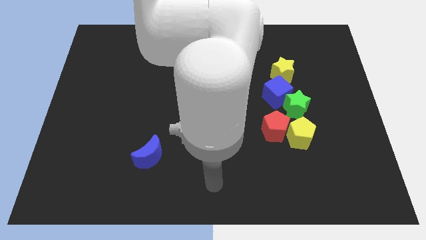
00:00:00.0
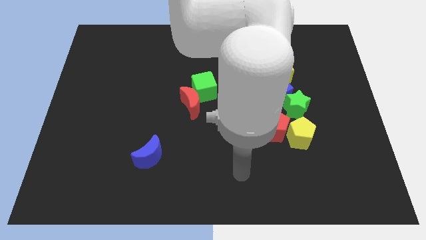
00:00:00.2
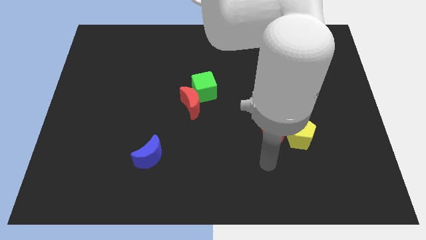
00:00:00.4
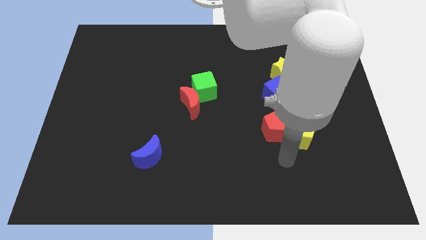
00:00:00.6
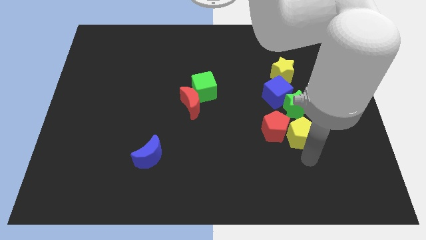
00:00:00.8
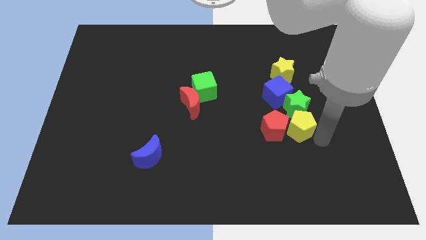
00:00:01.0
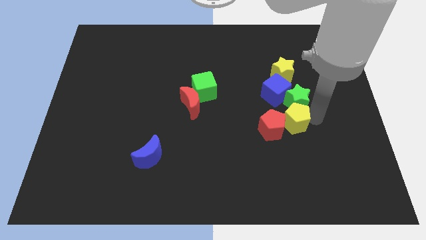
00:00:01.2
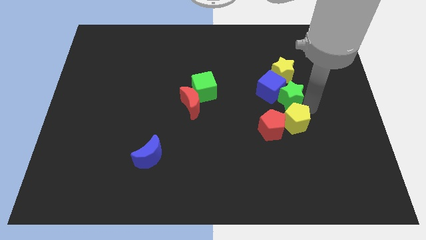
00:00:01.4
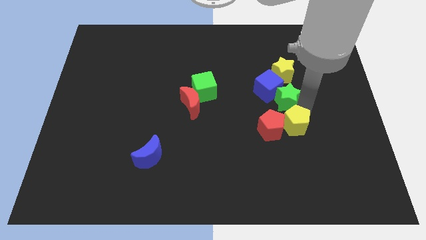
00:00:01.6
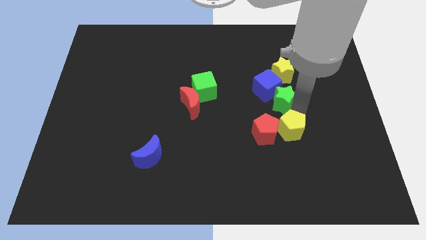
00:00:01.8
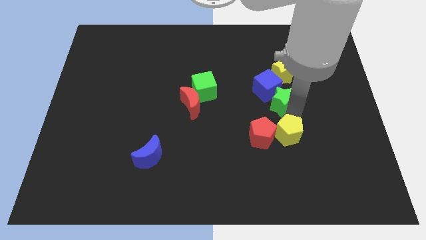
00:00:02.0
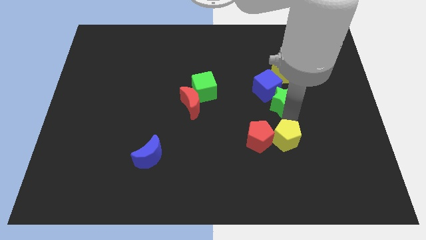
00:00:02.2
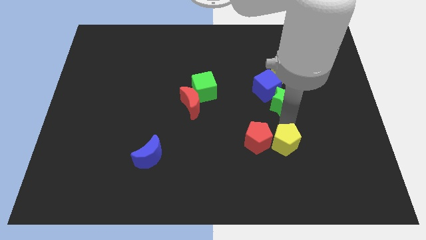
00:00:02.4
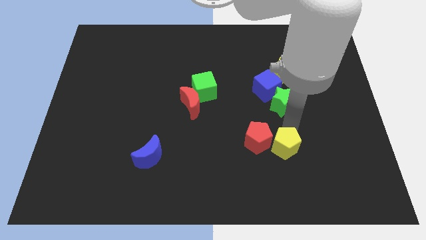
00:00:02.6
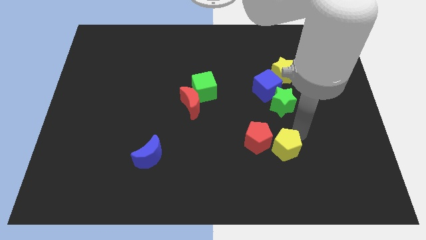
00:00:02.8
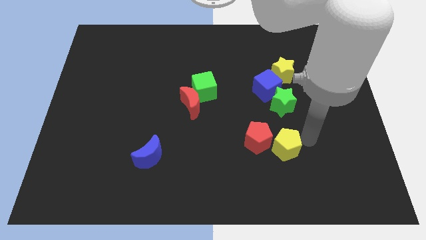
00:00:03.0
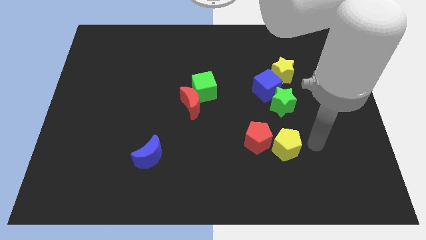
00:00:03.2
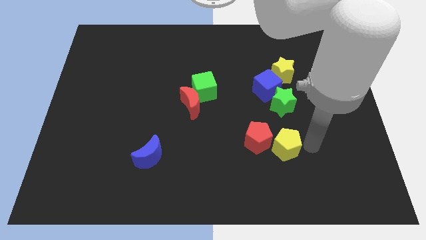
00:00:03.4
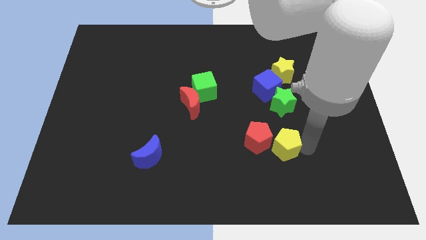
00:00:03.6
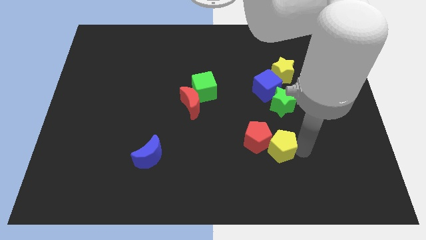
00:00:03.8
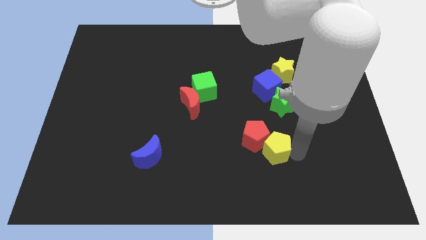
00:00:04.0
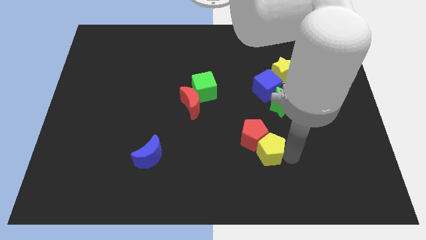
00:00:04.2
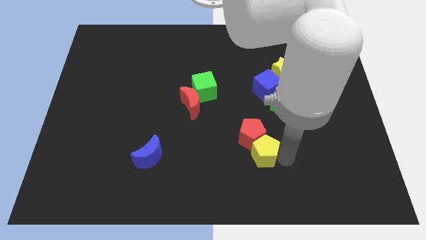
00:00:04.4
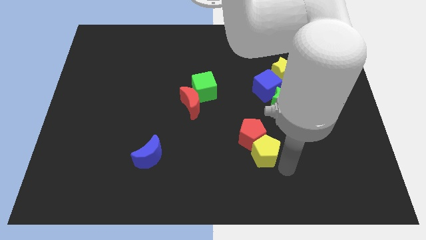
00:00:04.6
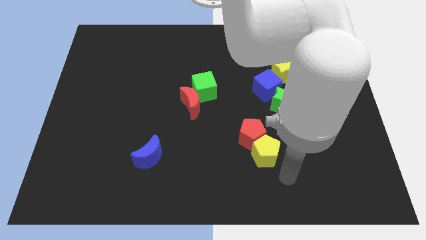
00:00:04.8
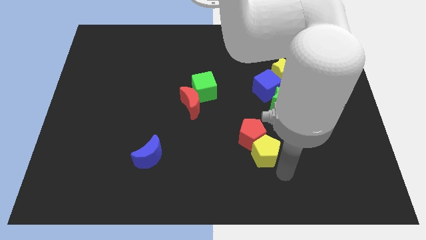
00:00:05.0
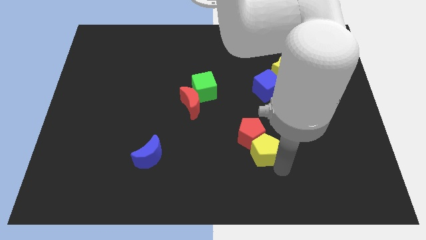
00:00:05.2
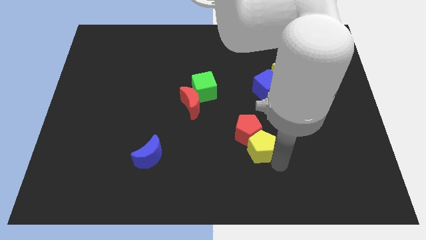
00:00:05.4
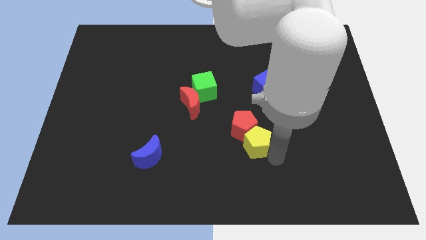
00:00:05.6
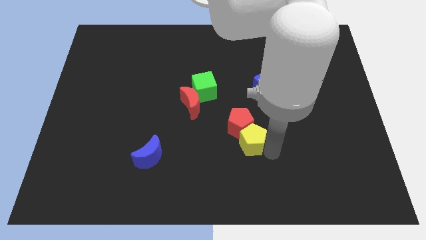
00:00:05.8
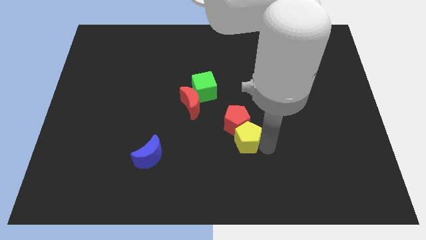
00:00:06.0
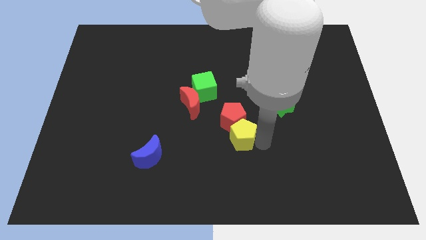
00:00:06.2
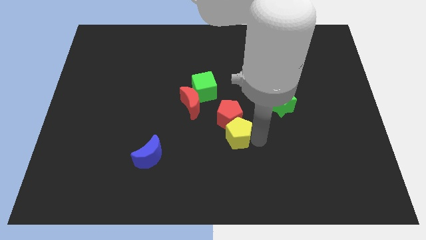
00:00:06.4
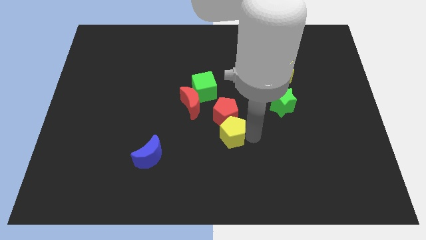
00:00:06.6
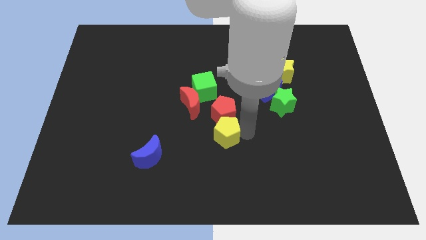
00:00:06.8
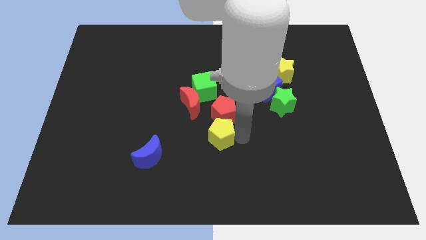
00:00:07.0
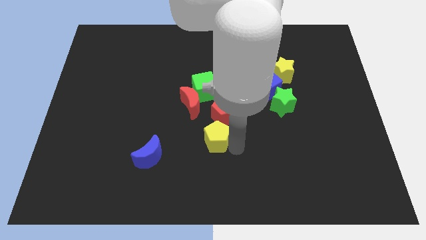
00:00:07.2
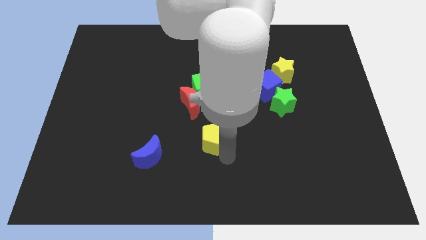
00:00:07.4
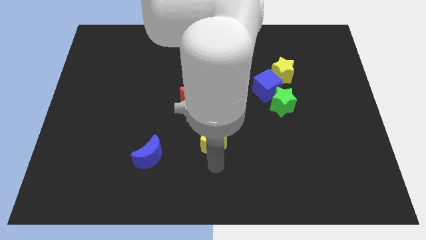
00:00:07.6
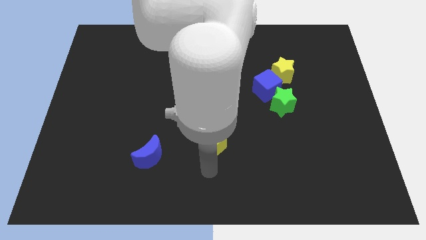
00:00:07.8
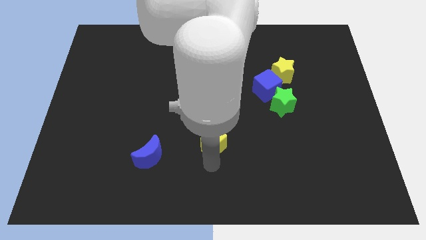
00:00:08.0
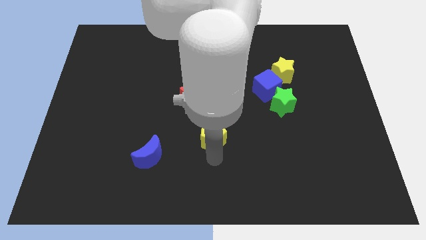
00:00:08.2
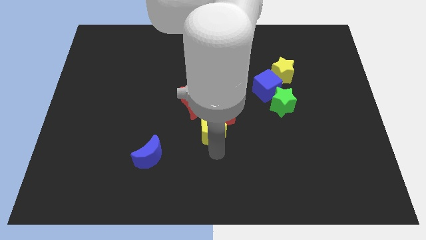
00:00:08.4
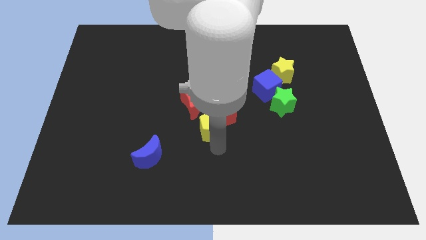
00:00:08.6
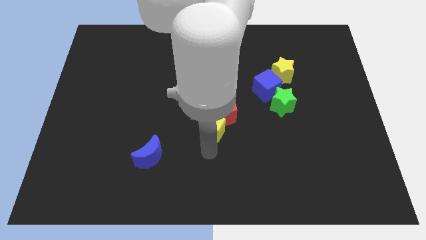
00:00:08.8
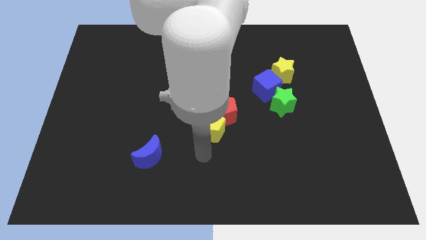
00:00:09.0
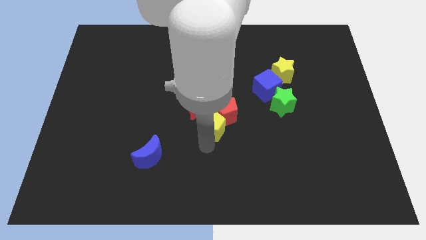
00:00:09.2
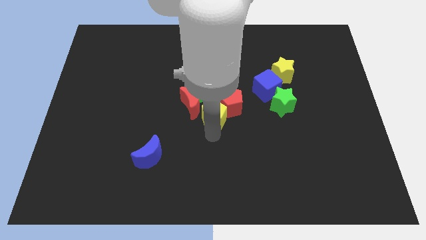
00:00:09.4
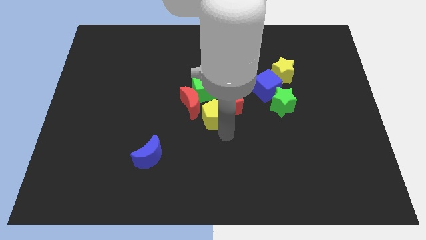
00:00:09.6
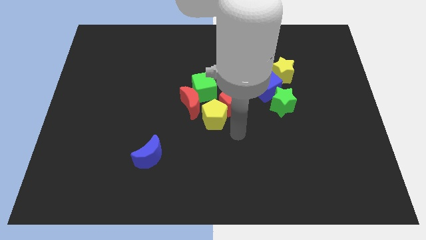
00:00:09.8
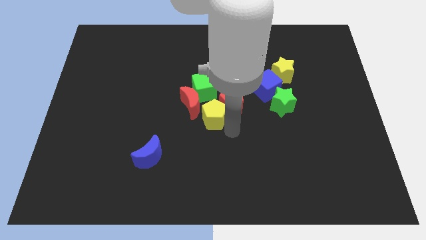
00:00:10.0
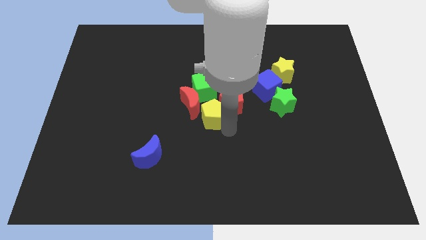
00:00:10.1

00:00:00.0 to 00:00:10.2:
push the yellow pentagon to the red moon

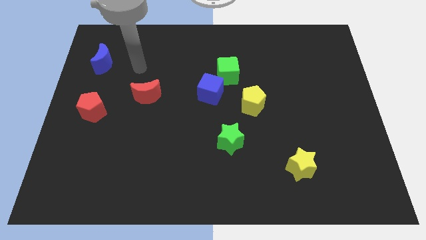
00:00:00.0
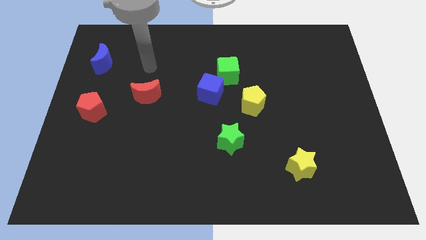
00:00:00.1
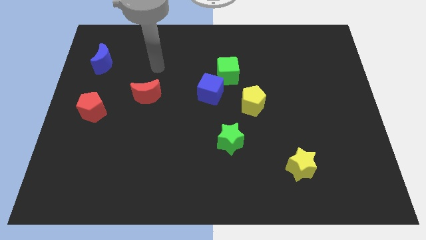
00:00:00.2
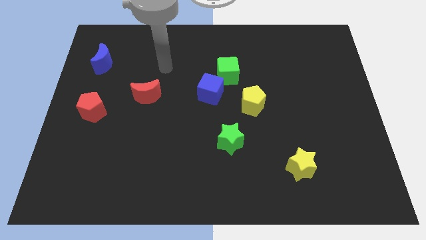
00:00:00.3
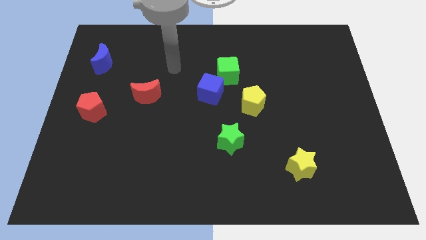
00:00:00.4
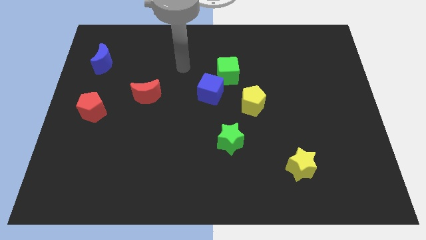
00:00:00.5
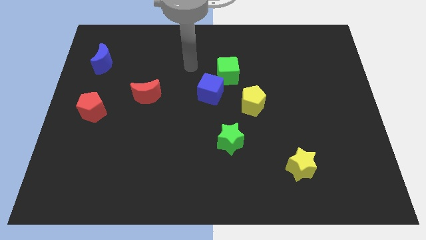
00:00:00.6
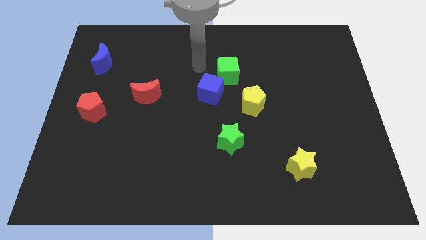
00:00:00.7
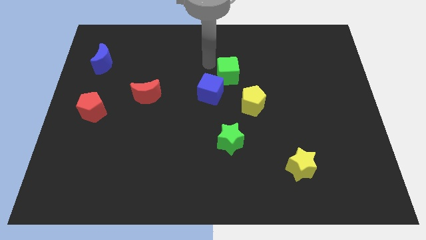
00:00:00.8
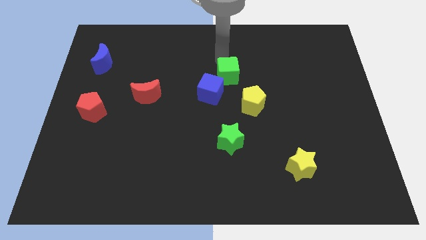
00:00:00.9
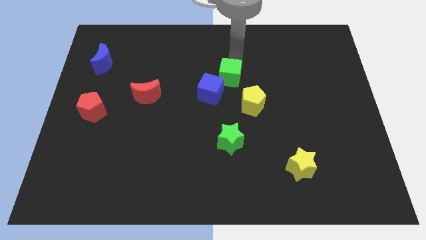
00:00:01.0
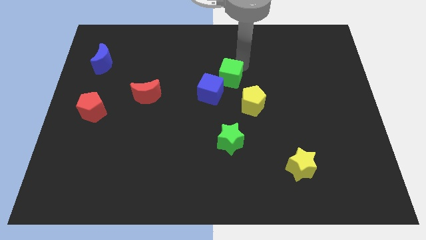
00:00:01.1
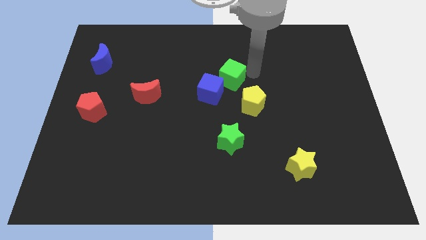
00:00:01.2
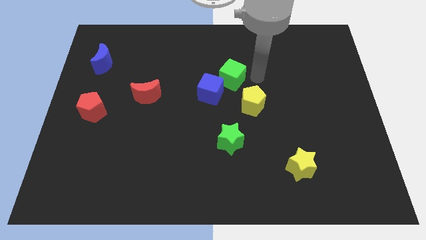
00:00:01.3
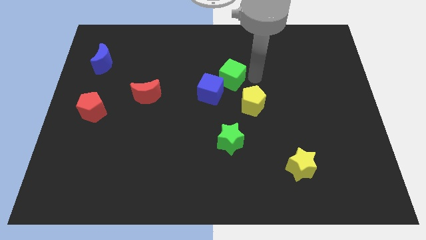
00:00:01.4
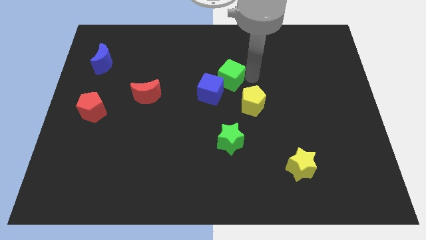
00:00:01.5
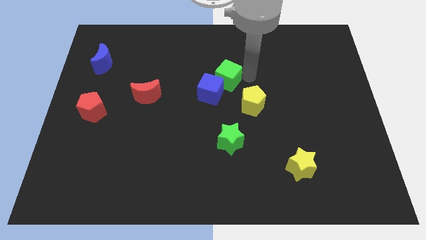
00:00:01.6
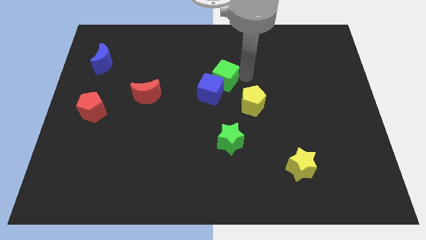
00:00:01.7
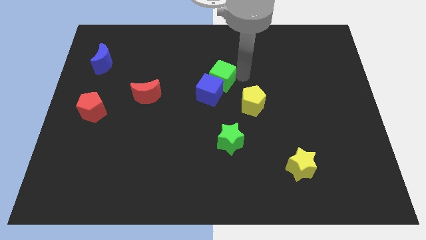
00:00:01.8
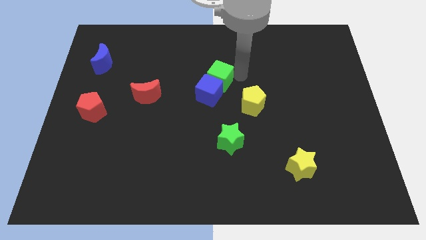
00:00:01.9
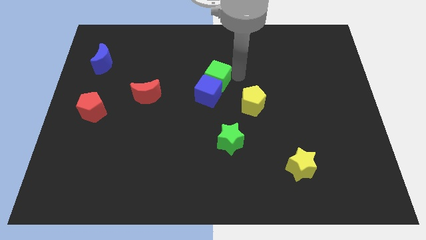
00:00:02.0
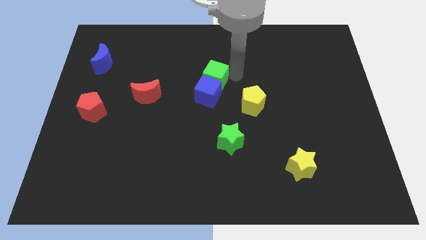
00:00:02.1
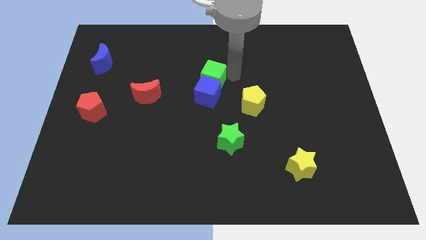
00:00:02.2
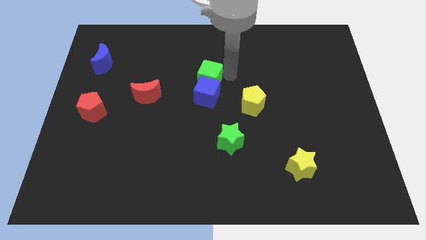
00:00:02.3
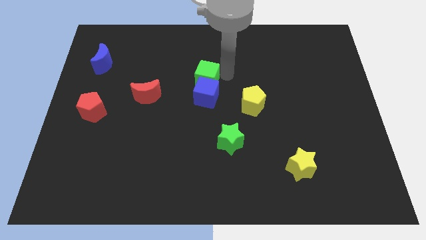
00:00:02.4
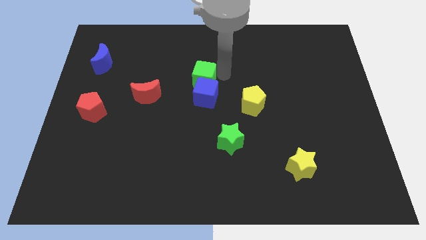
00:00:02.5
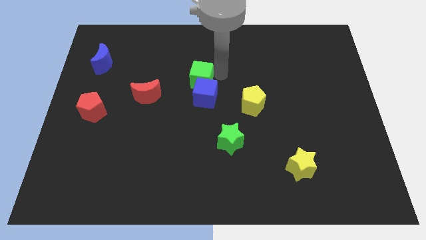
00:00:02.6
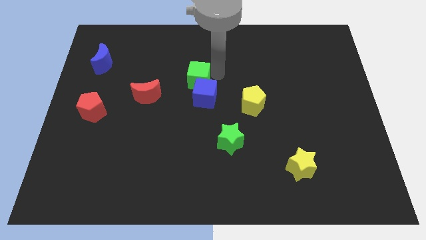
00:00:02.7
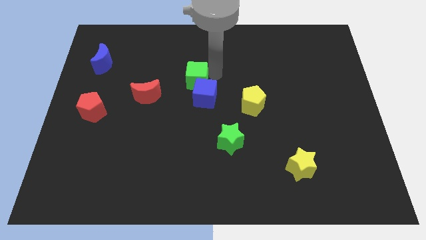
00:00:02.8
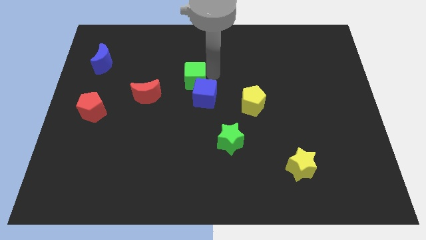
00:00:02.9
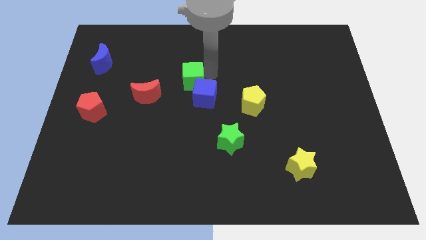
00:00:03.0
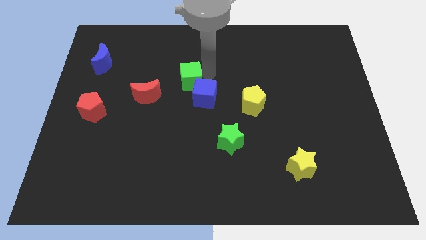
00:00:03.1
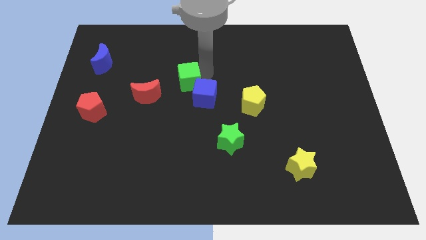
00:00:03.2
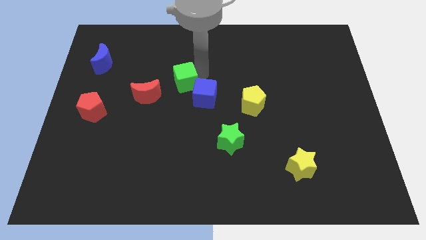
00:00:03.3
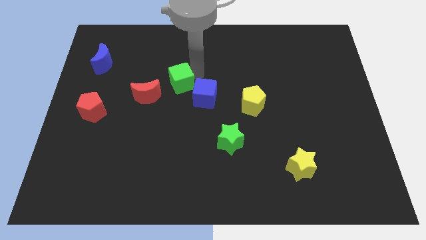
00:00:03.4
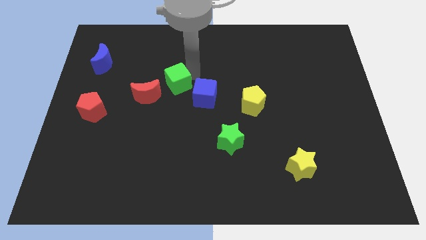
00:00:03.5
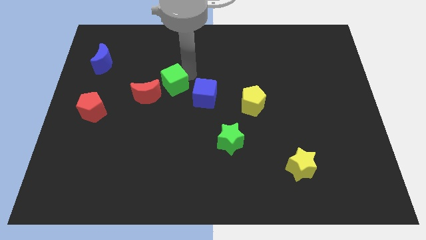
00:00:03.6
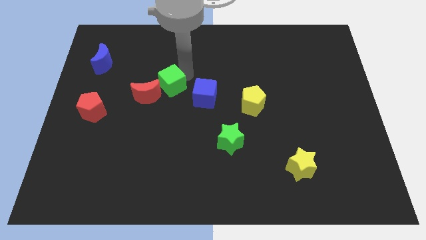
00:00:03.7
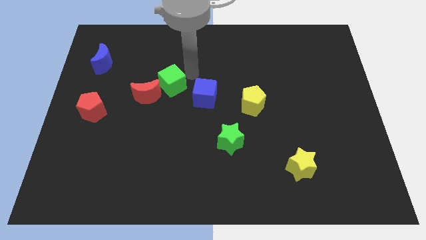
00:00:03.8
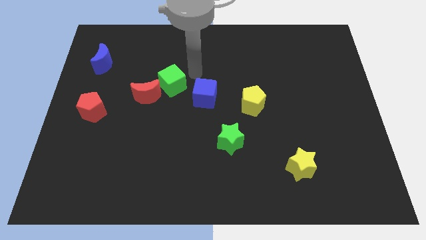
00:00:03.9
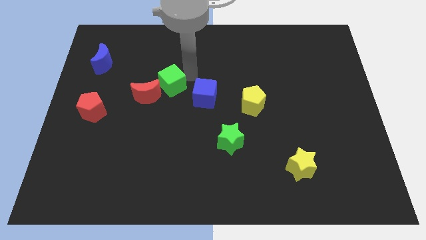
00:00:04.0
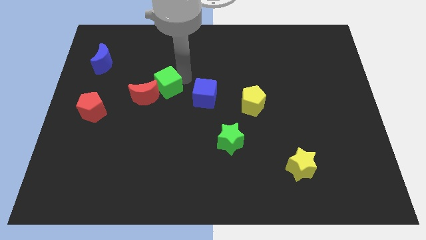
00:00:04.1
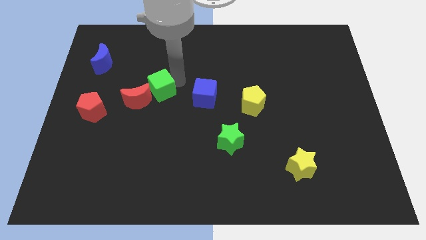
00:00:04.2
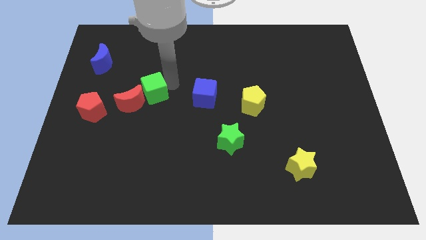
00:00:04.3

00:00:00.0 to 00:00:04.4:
move the green cube next to the red moon
